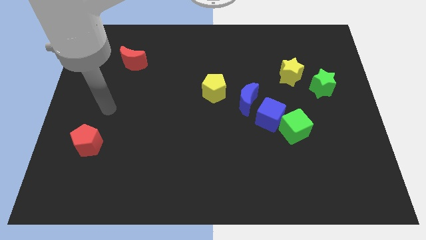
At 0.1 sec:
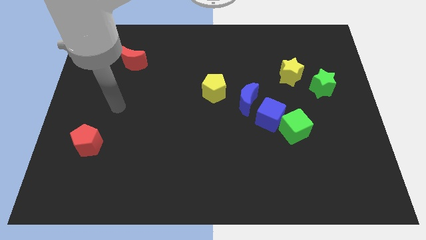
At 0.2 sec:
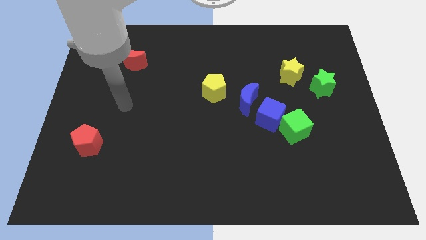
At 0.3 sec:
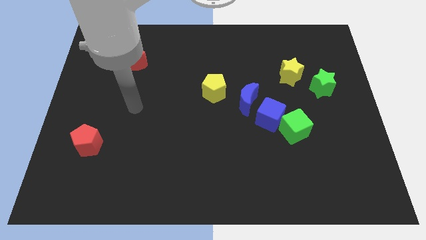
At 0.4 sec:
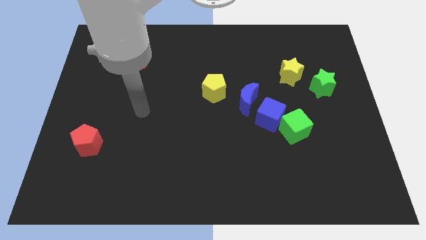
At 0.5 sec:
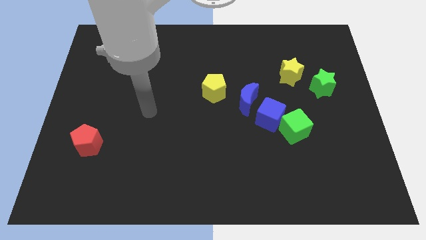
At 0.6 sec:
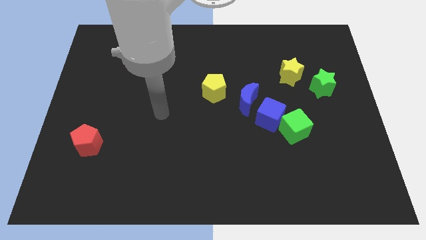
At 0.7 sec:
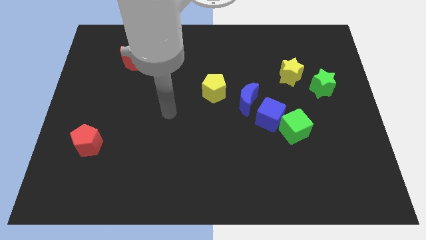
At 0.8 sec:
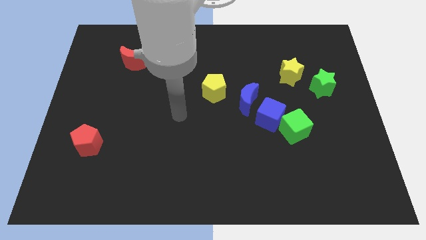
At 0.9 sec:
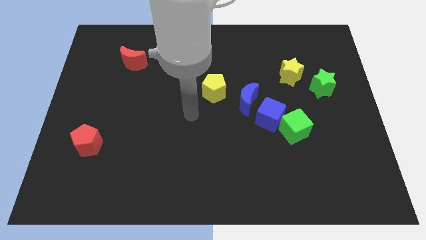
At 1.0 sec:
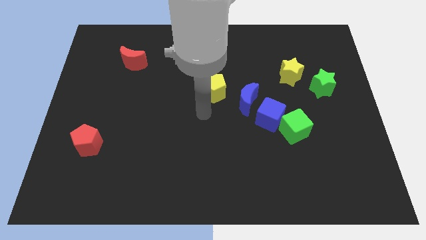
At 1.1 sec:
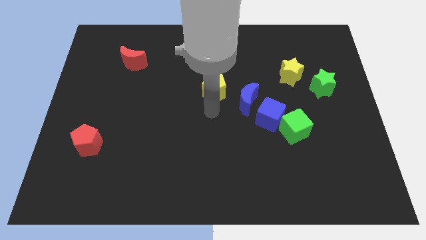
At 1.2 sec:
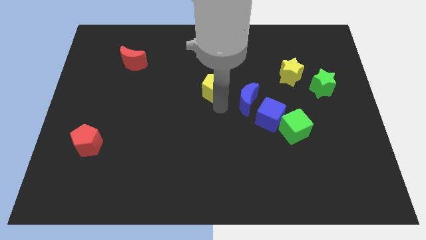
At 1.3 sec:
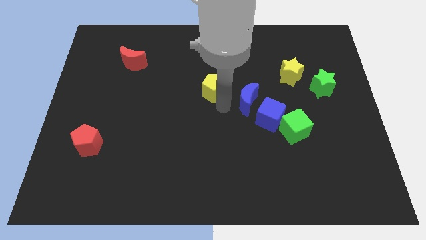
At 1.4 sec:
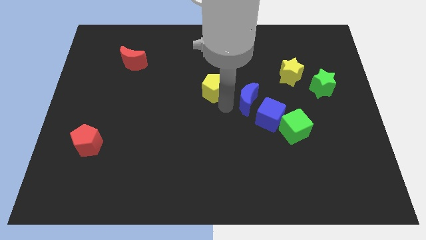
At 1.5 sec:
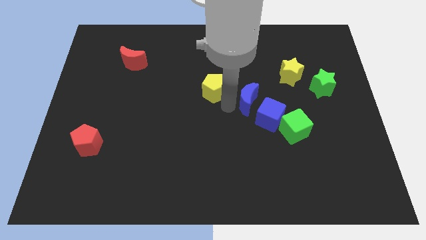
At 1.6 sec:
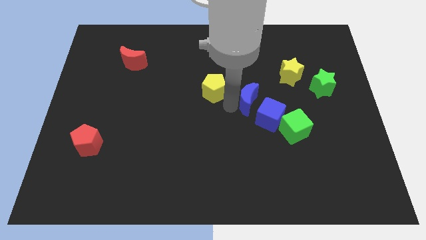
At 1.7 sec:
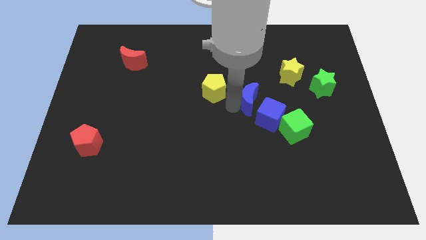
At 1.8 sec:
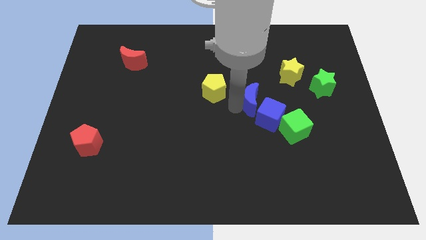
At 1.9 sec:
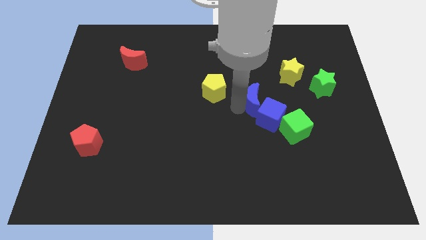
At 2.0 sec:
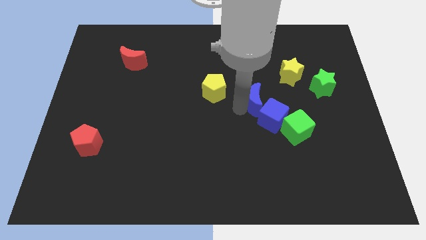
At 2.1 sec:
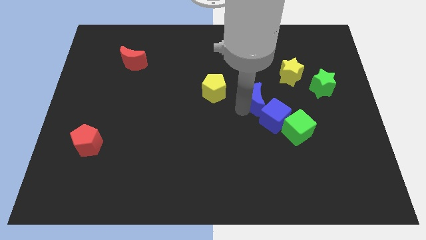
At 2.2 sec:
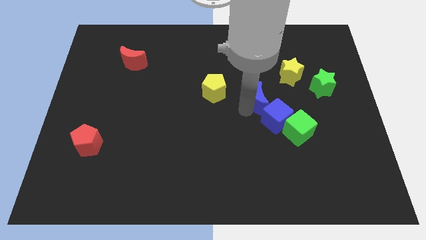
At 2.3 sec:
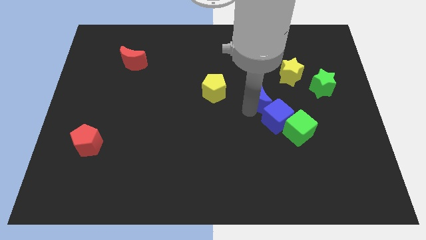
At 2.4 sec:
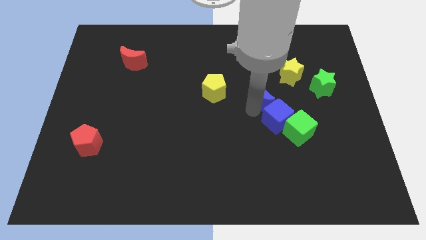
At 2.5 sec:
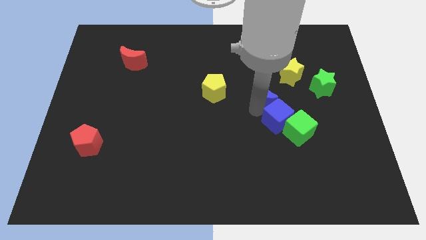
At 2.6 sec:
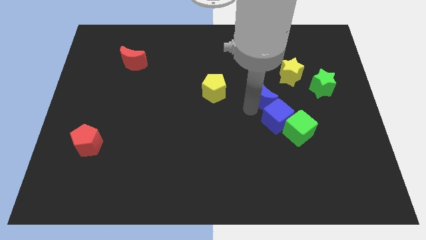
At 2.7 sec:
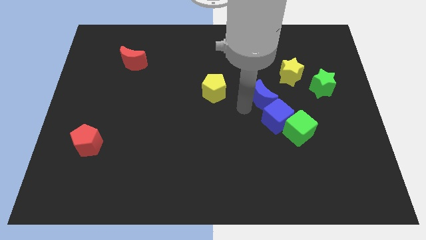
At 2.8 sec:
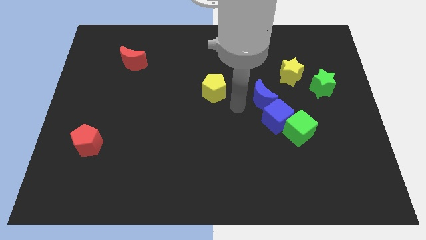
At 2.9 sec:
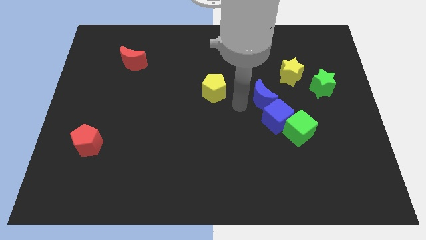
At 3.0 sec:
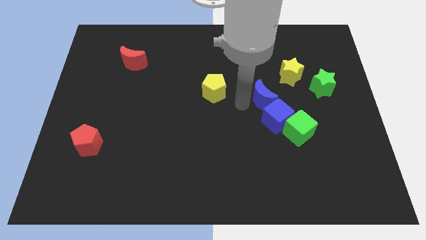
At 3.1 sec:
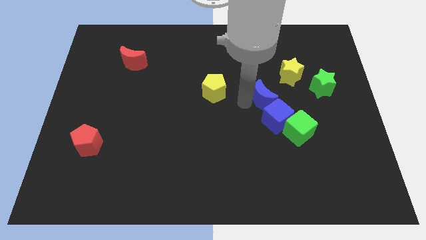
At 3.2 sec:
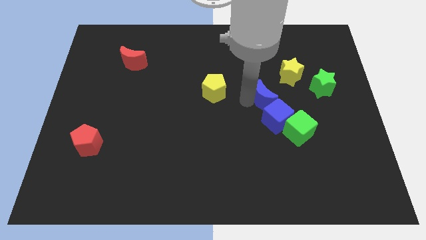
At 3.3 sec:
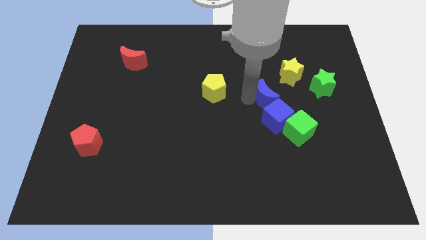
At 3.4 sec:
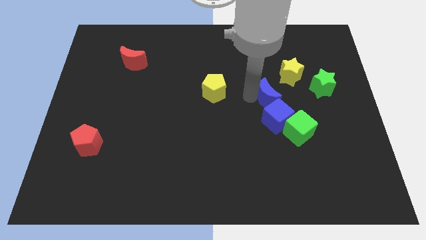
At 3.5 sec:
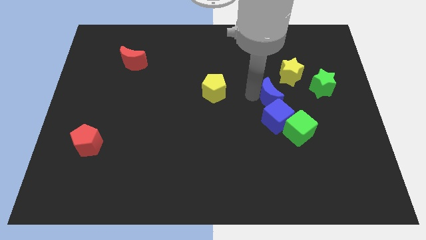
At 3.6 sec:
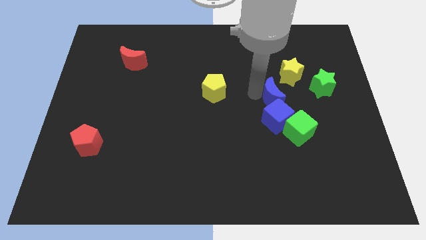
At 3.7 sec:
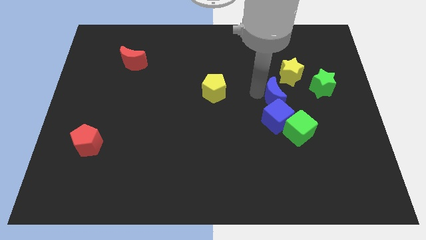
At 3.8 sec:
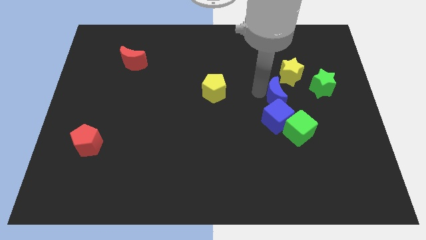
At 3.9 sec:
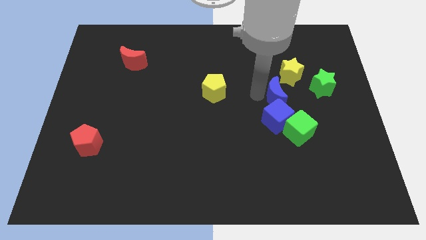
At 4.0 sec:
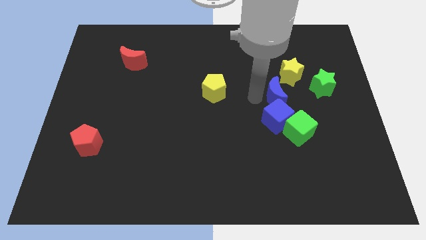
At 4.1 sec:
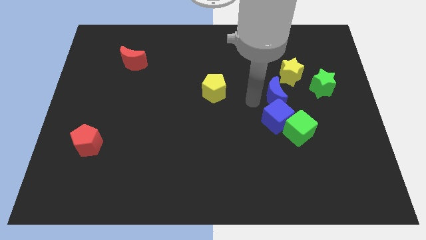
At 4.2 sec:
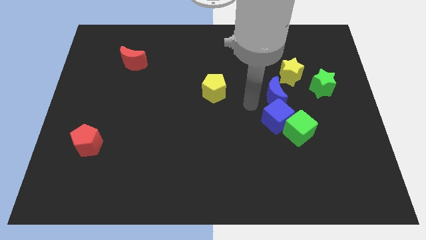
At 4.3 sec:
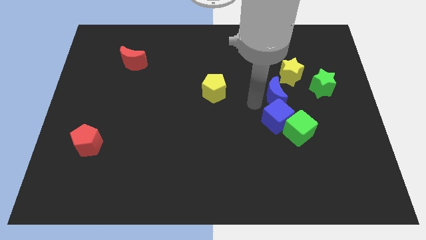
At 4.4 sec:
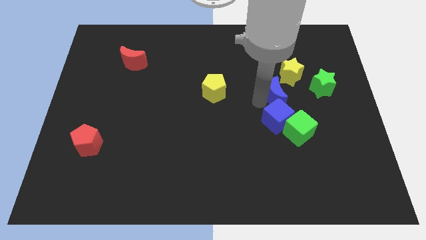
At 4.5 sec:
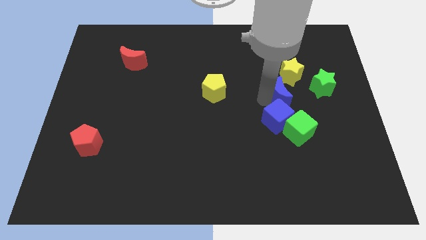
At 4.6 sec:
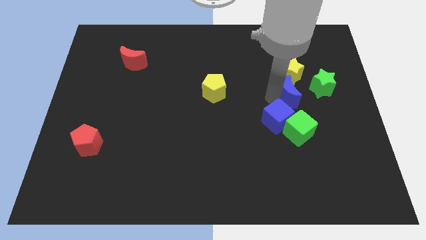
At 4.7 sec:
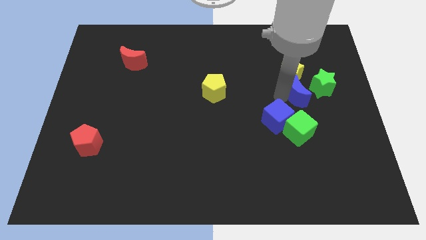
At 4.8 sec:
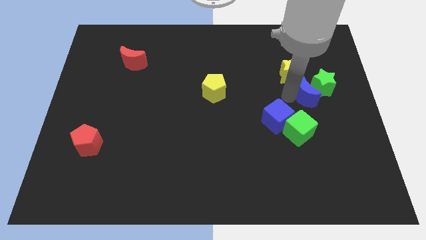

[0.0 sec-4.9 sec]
slide the blue moon towards the green star

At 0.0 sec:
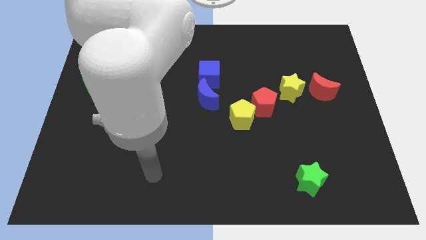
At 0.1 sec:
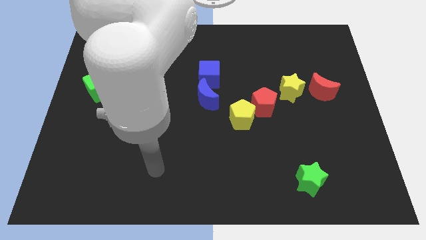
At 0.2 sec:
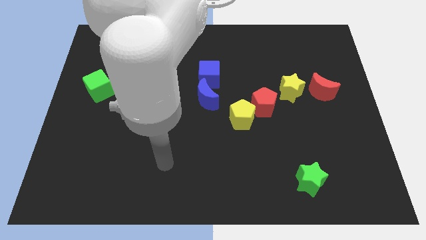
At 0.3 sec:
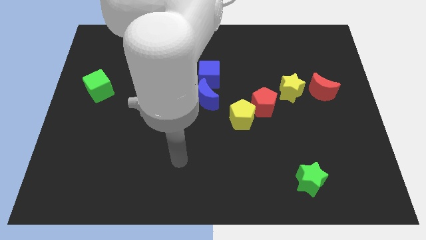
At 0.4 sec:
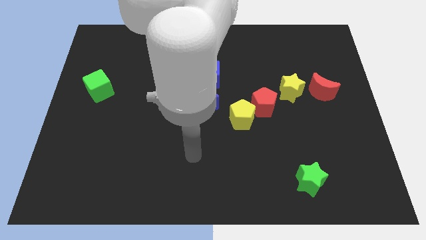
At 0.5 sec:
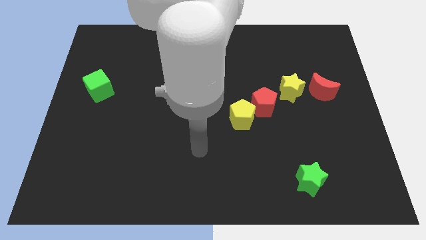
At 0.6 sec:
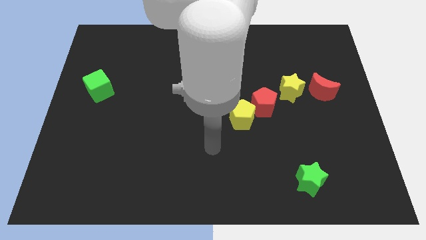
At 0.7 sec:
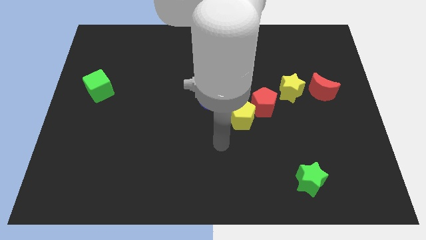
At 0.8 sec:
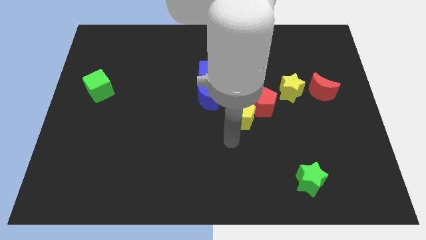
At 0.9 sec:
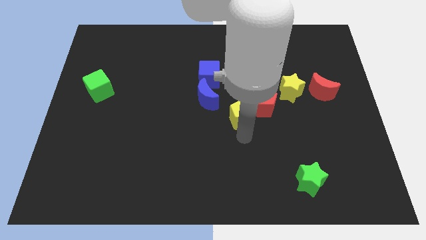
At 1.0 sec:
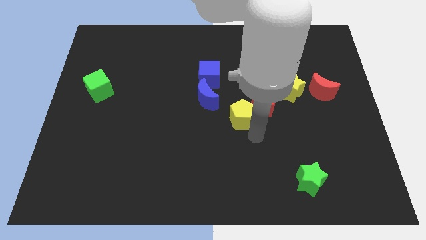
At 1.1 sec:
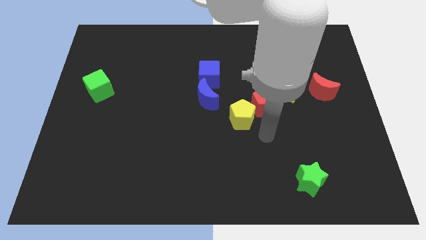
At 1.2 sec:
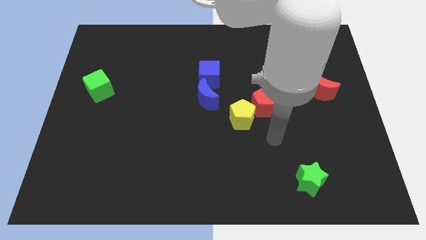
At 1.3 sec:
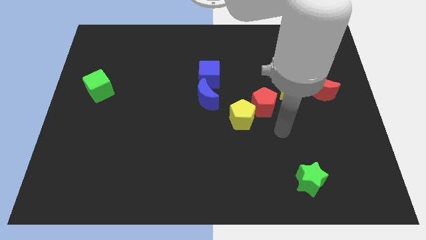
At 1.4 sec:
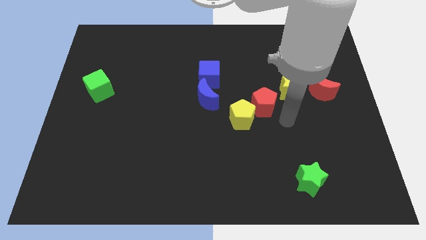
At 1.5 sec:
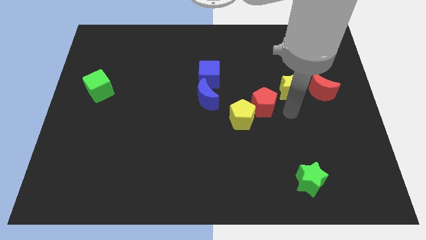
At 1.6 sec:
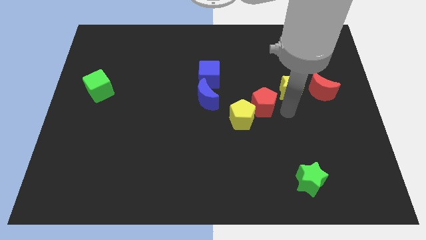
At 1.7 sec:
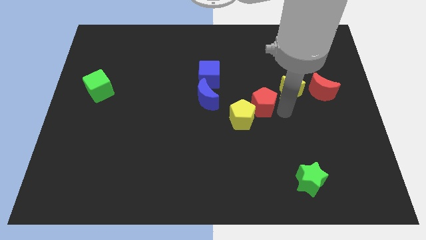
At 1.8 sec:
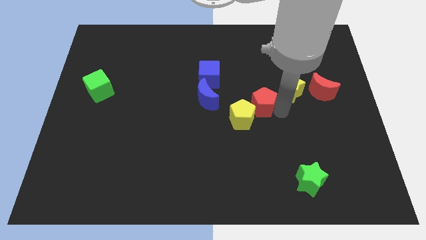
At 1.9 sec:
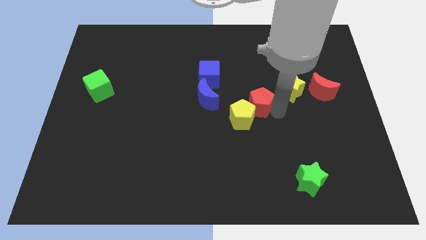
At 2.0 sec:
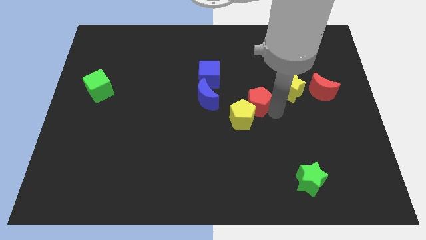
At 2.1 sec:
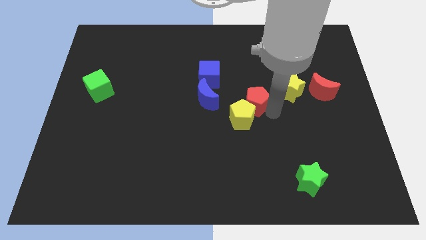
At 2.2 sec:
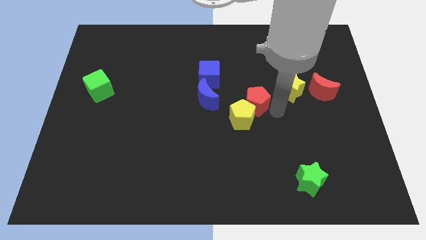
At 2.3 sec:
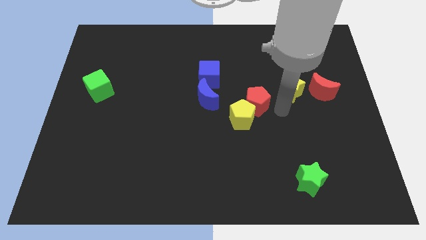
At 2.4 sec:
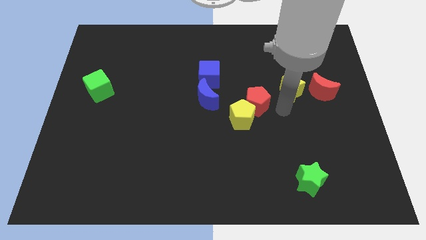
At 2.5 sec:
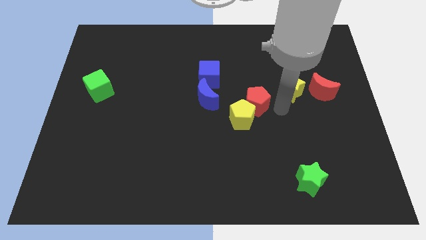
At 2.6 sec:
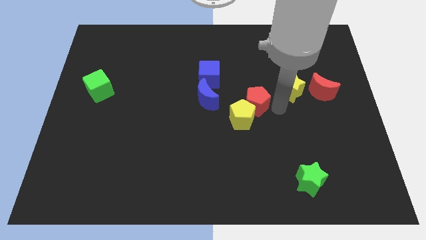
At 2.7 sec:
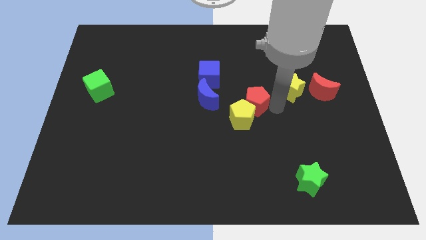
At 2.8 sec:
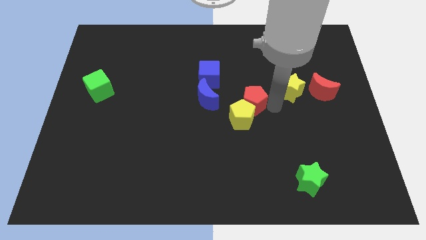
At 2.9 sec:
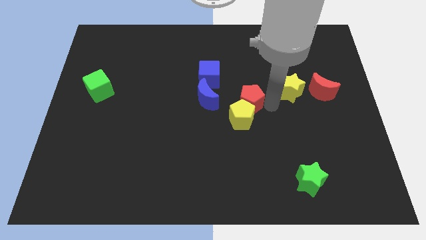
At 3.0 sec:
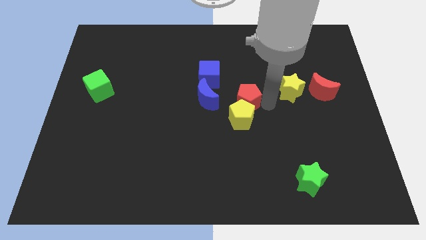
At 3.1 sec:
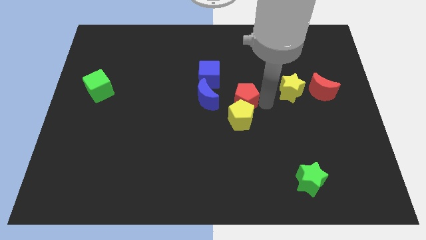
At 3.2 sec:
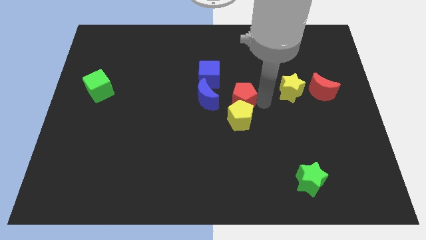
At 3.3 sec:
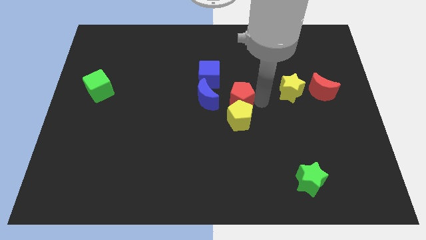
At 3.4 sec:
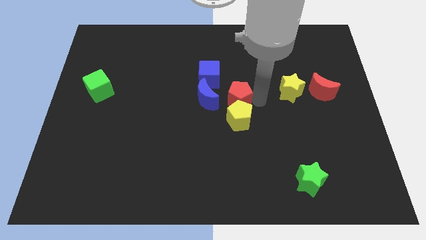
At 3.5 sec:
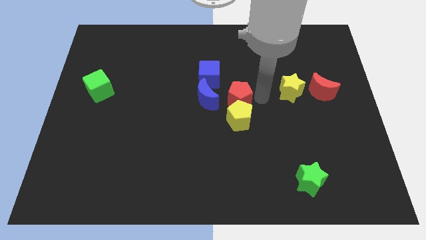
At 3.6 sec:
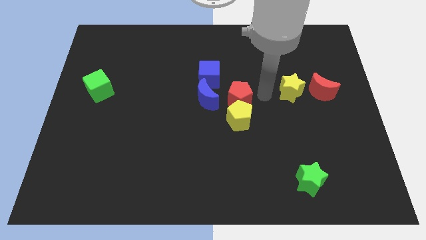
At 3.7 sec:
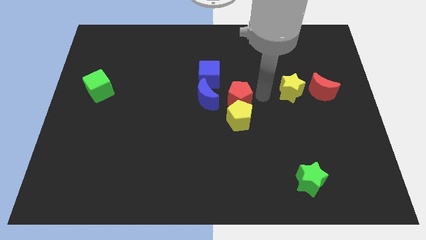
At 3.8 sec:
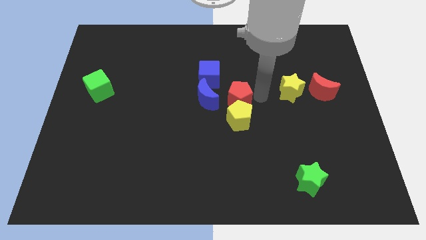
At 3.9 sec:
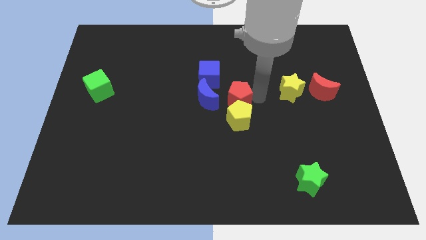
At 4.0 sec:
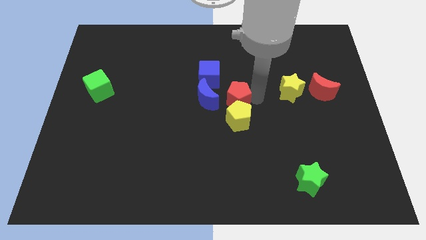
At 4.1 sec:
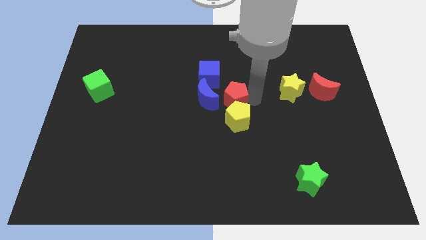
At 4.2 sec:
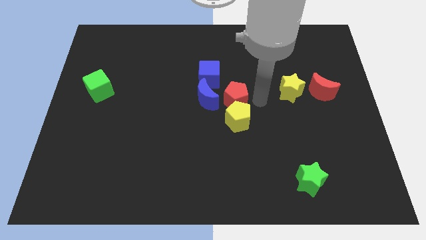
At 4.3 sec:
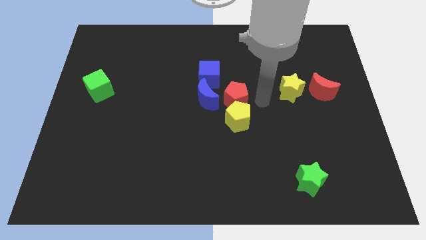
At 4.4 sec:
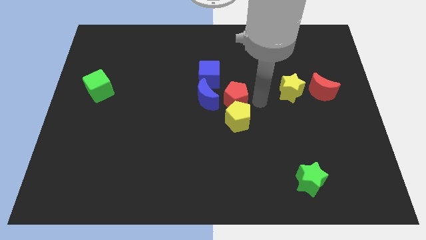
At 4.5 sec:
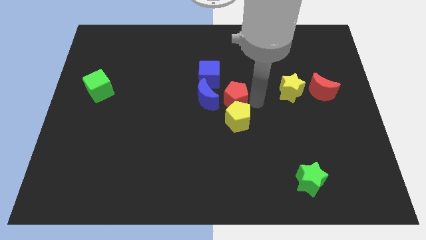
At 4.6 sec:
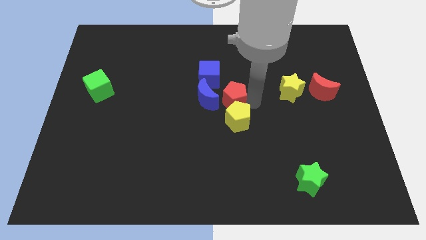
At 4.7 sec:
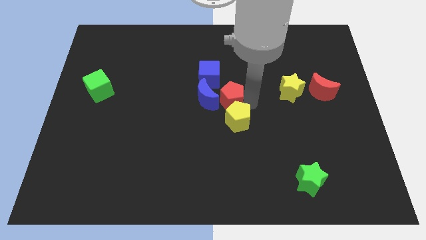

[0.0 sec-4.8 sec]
put the red pentagon next to the blue moon
